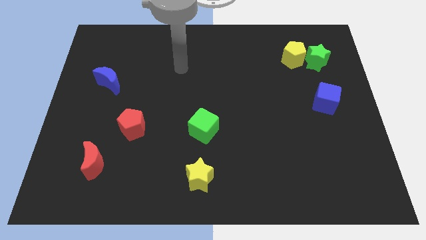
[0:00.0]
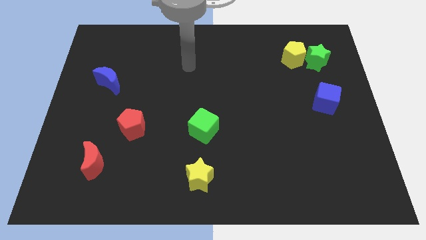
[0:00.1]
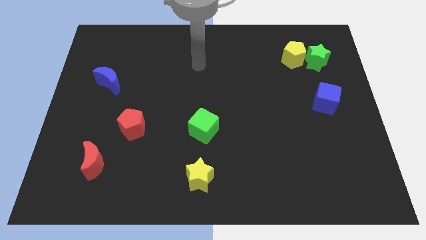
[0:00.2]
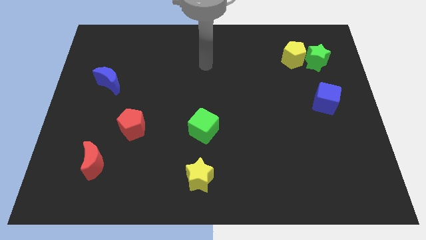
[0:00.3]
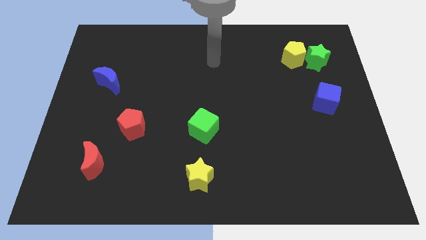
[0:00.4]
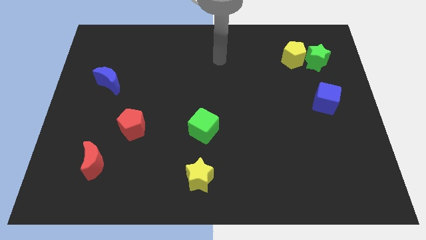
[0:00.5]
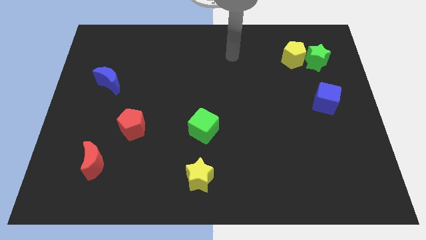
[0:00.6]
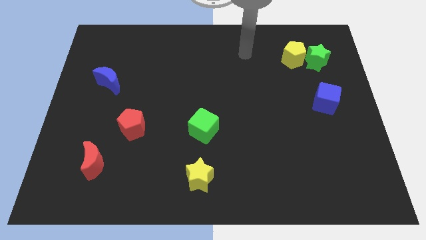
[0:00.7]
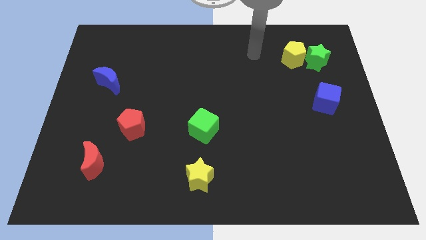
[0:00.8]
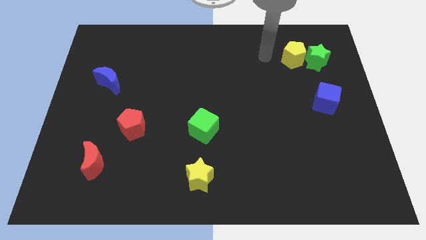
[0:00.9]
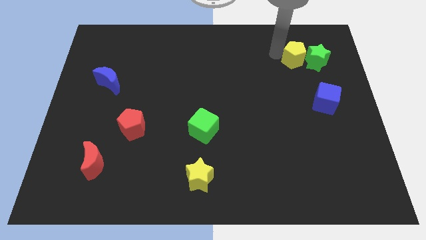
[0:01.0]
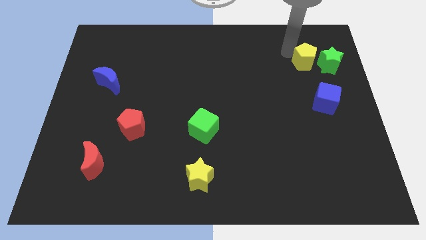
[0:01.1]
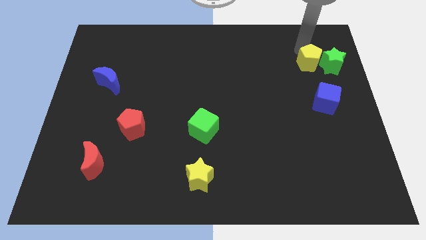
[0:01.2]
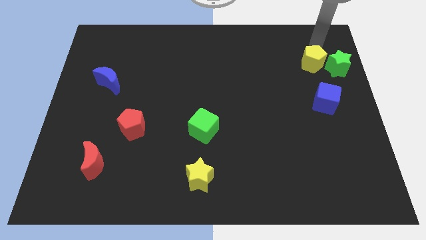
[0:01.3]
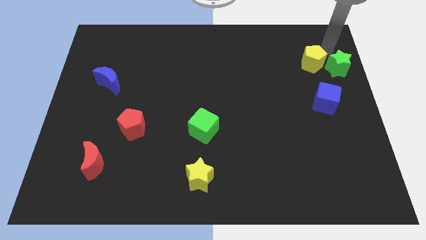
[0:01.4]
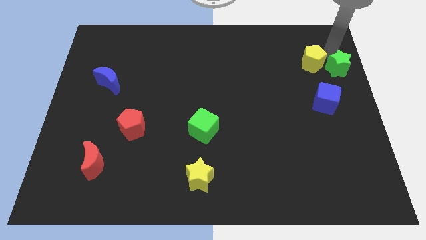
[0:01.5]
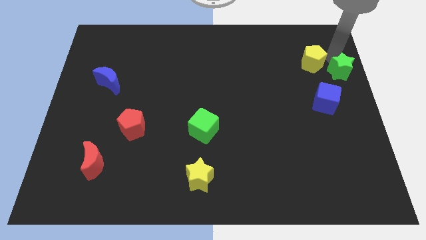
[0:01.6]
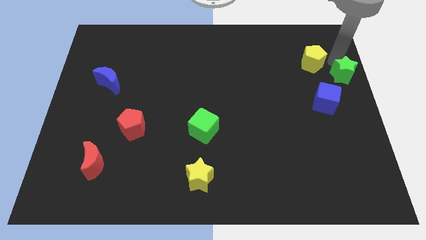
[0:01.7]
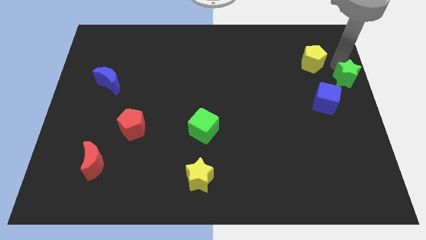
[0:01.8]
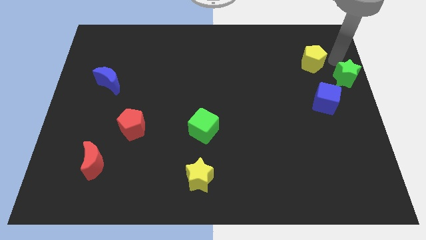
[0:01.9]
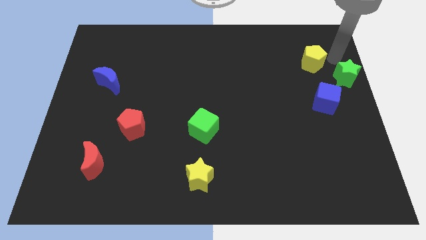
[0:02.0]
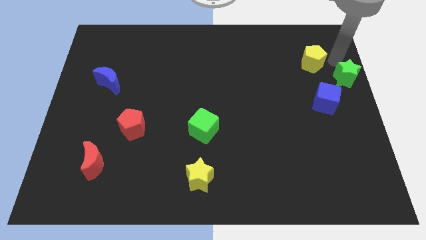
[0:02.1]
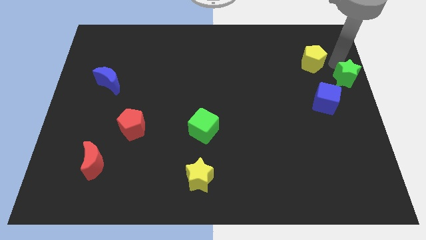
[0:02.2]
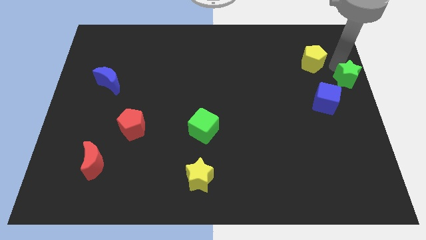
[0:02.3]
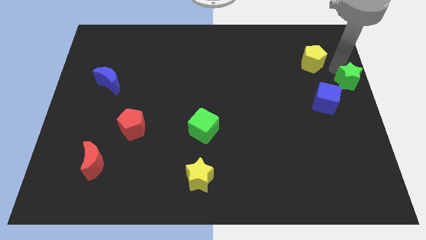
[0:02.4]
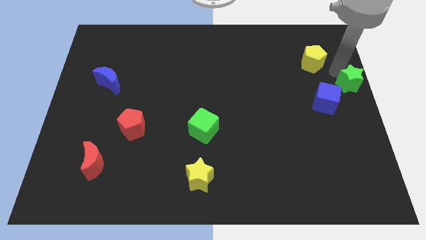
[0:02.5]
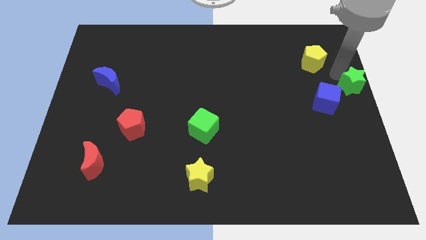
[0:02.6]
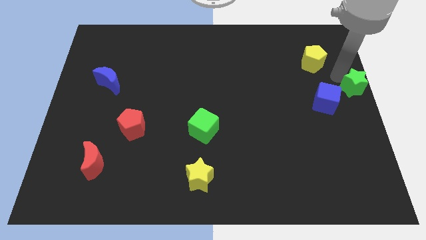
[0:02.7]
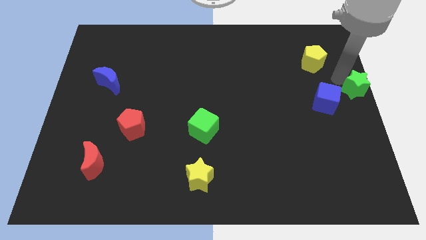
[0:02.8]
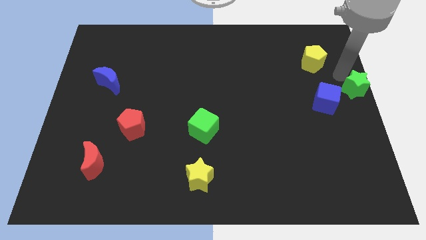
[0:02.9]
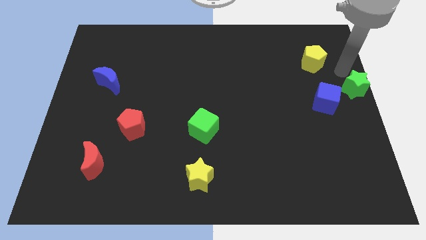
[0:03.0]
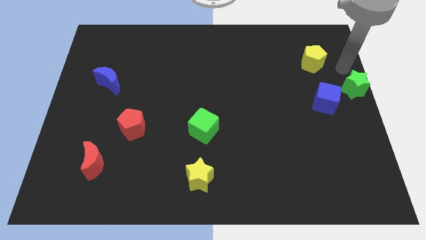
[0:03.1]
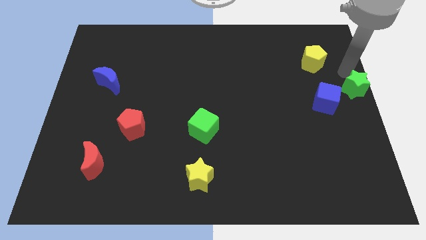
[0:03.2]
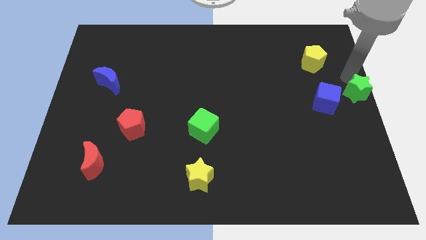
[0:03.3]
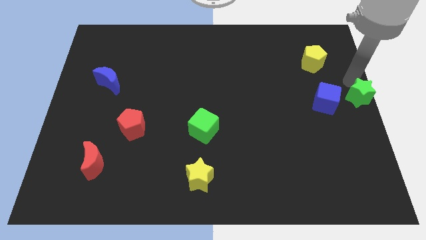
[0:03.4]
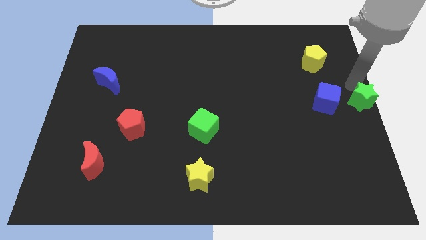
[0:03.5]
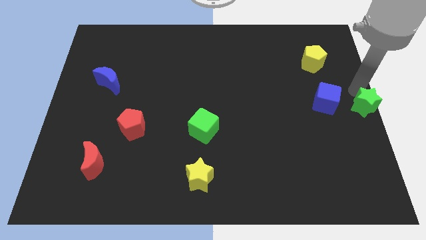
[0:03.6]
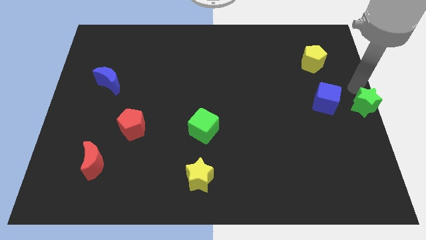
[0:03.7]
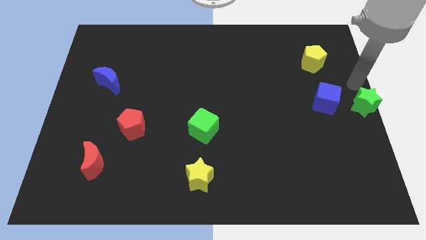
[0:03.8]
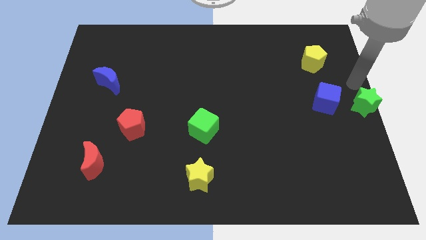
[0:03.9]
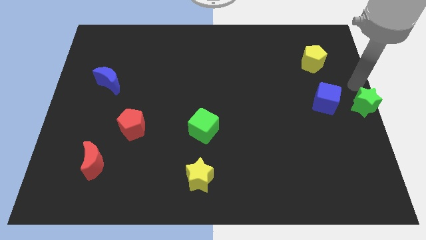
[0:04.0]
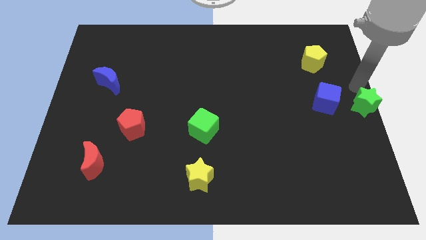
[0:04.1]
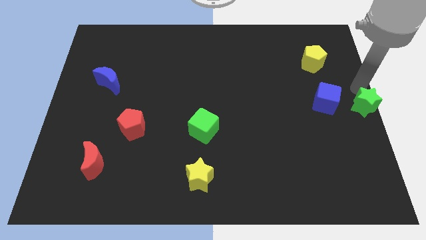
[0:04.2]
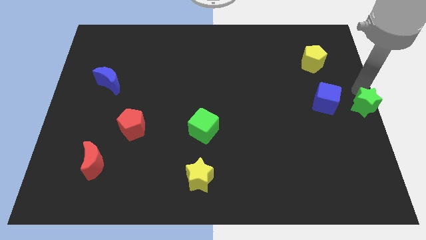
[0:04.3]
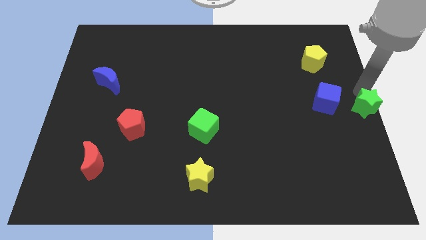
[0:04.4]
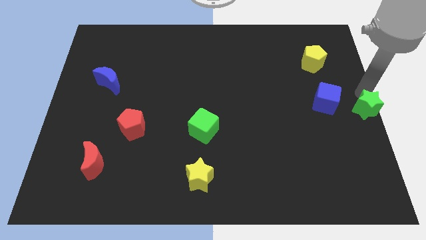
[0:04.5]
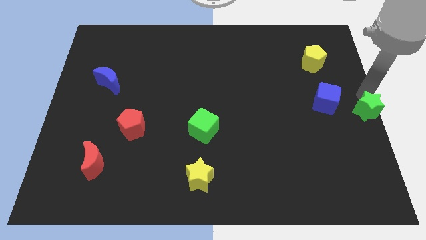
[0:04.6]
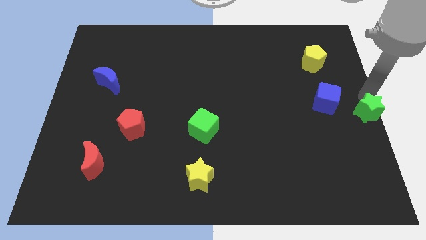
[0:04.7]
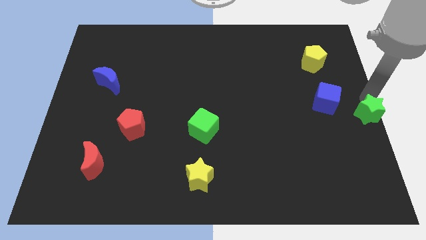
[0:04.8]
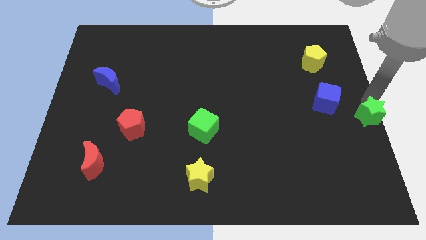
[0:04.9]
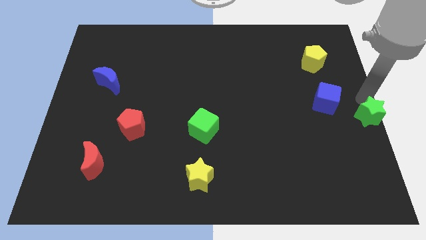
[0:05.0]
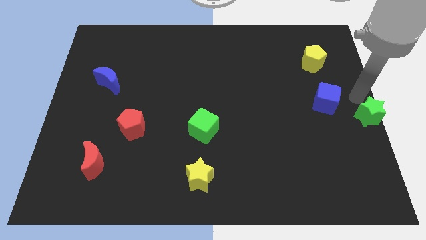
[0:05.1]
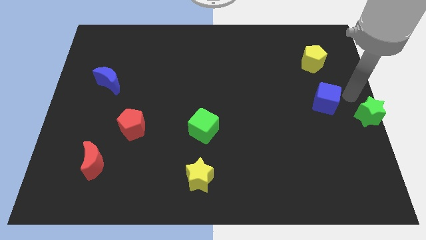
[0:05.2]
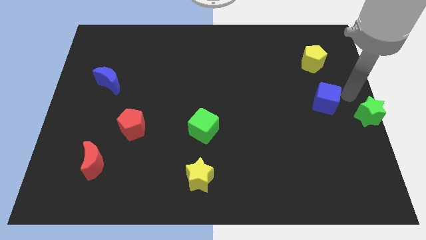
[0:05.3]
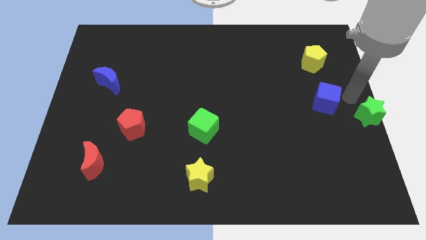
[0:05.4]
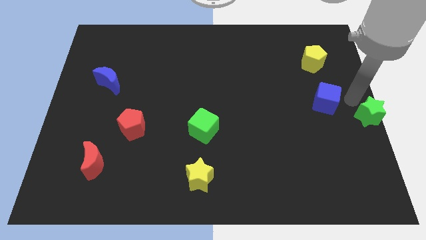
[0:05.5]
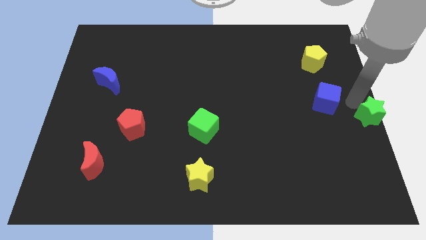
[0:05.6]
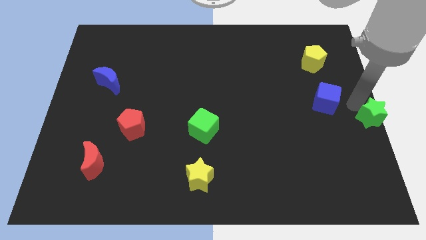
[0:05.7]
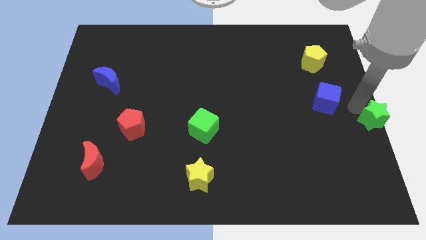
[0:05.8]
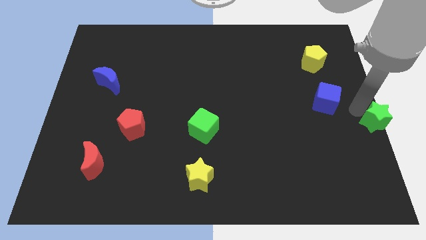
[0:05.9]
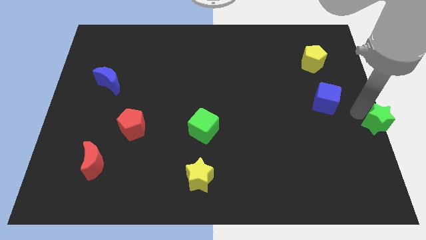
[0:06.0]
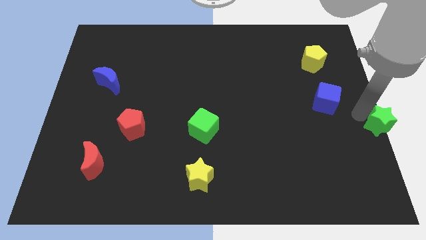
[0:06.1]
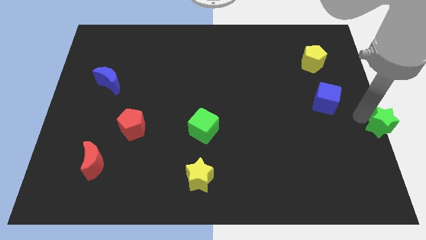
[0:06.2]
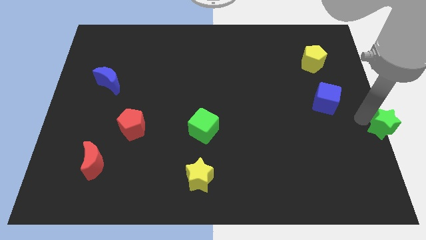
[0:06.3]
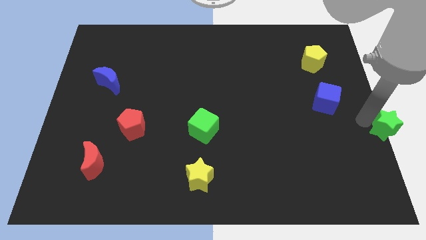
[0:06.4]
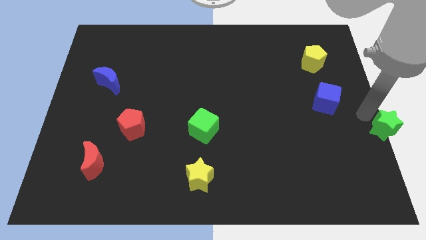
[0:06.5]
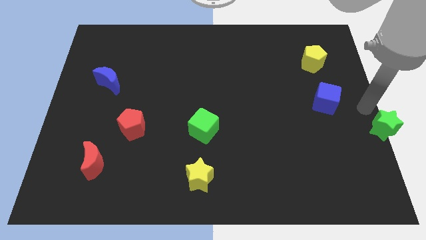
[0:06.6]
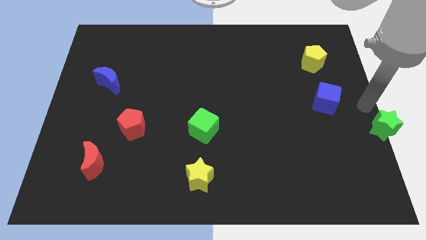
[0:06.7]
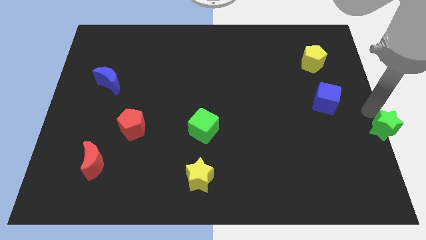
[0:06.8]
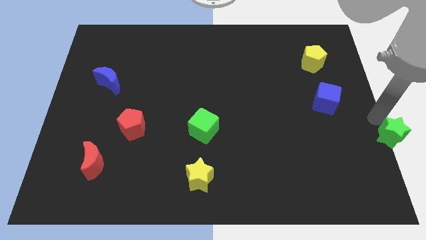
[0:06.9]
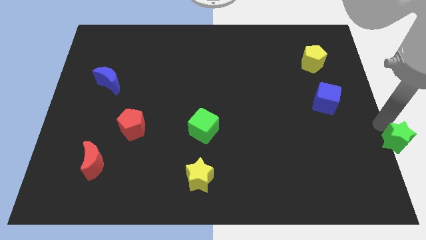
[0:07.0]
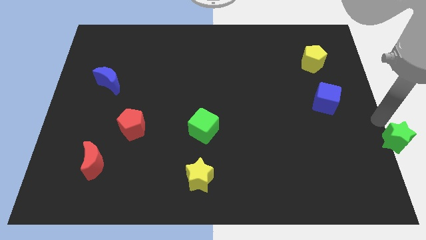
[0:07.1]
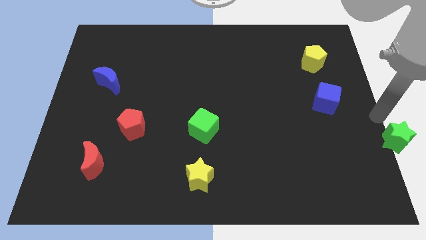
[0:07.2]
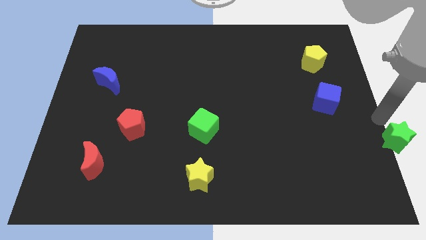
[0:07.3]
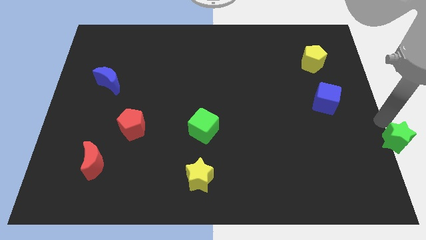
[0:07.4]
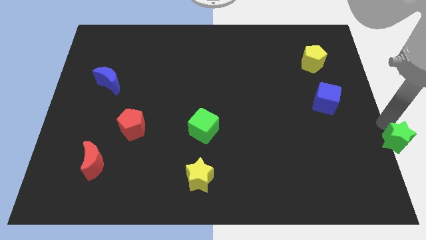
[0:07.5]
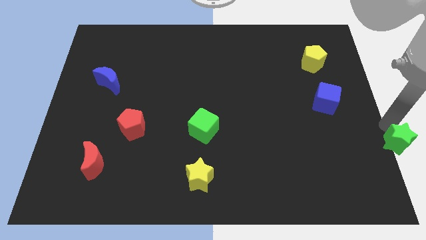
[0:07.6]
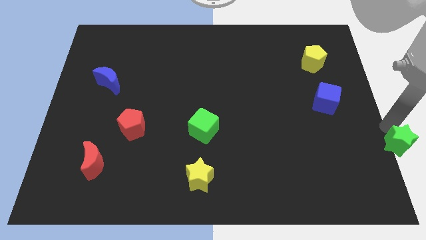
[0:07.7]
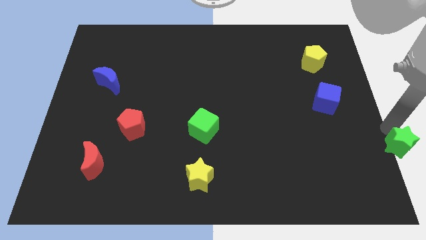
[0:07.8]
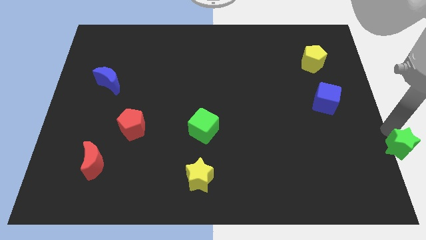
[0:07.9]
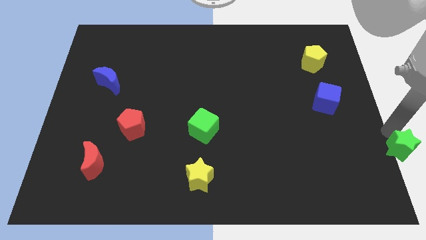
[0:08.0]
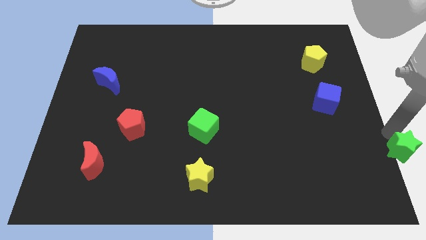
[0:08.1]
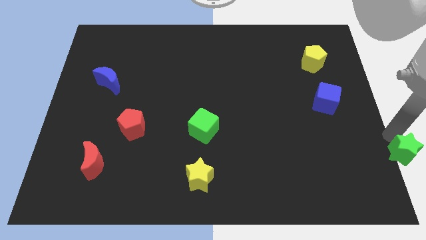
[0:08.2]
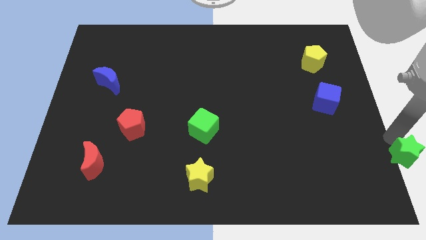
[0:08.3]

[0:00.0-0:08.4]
slide the green star to the bottom right
